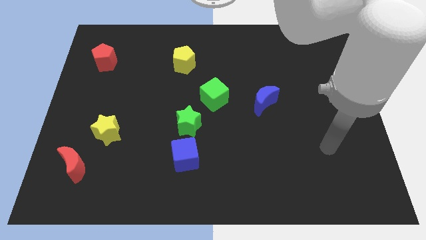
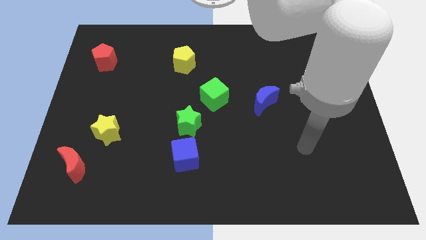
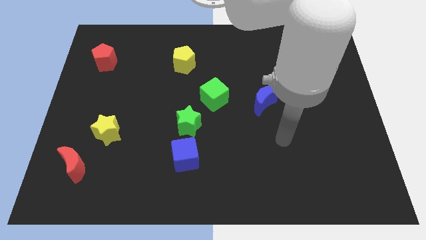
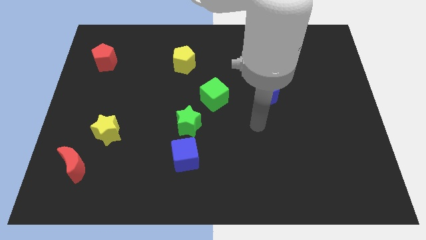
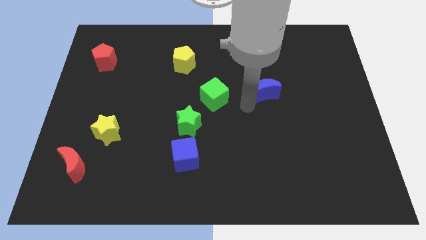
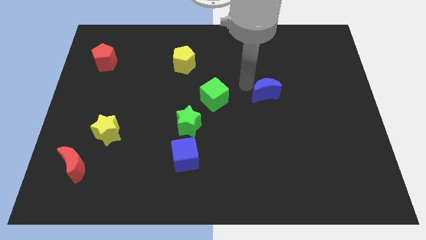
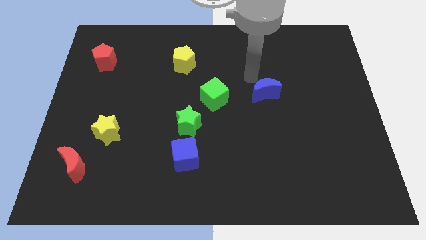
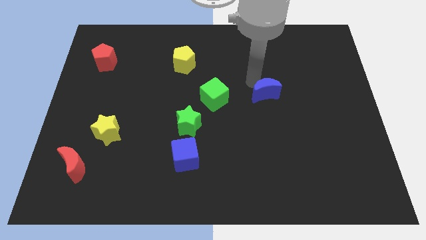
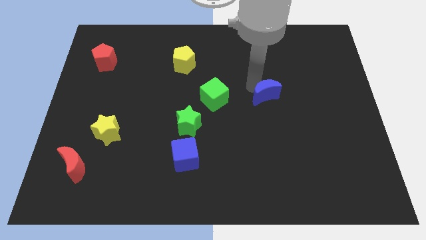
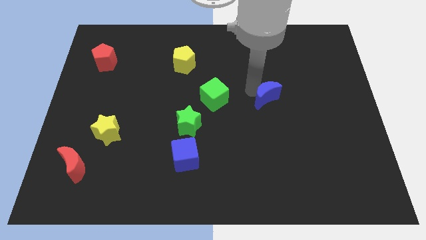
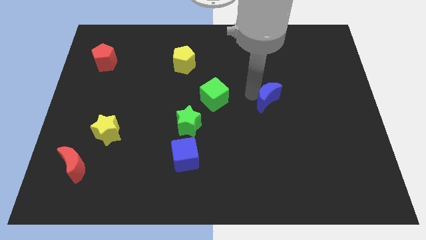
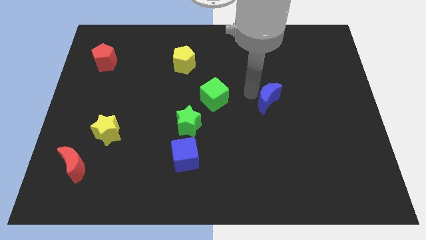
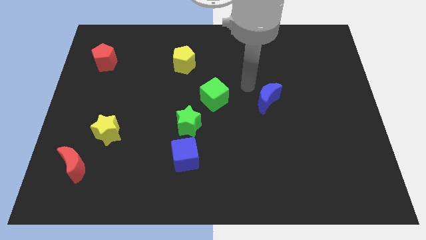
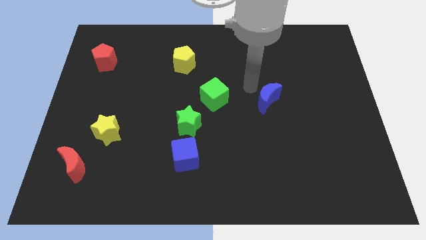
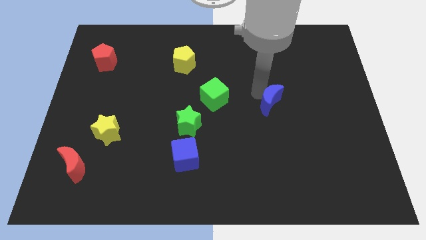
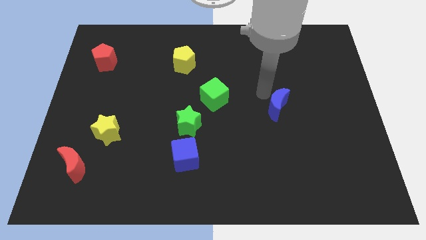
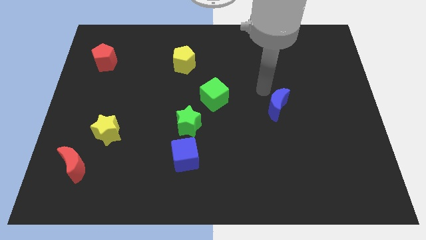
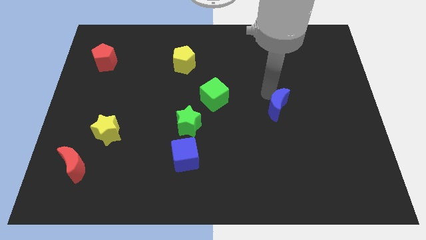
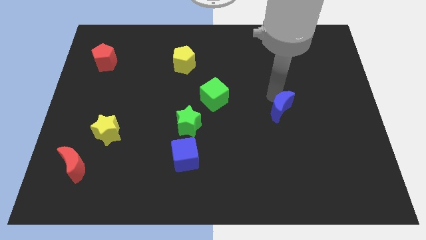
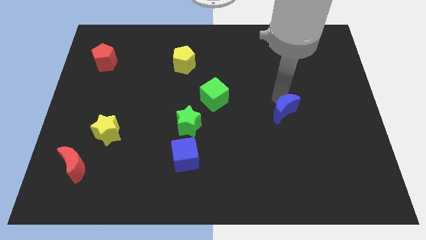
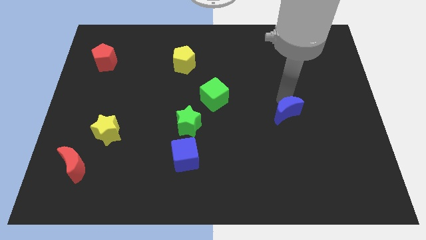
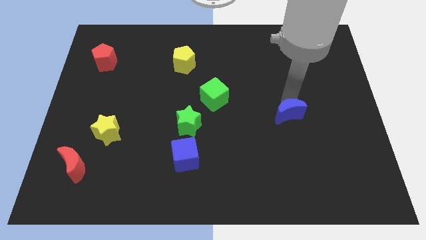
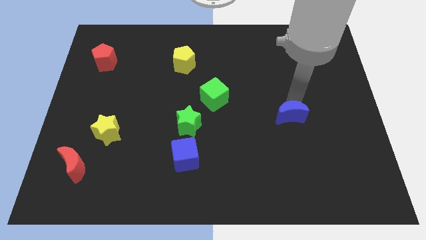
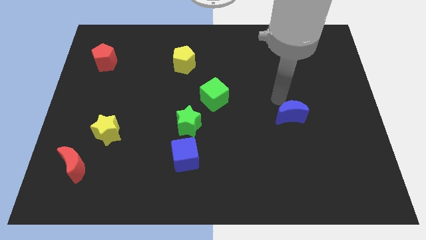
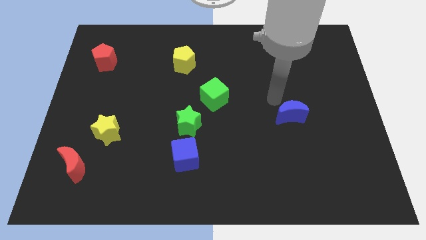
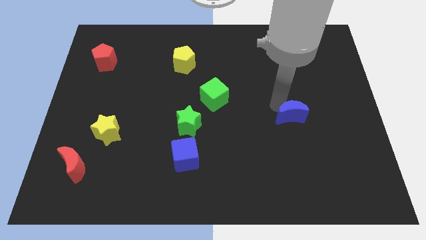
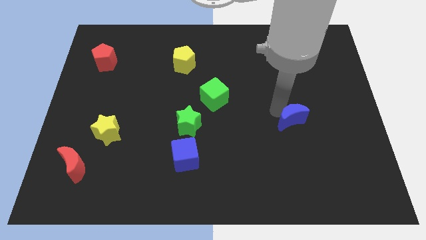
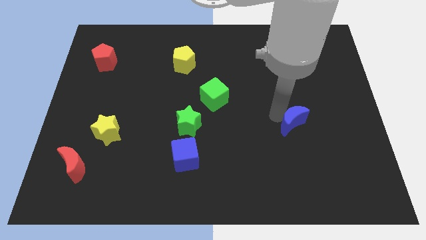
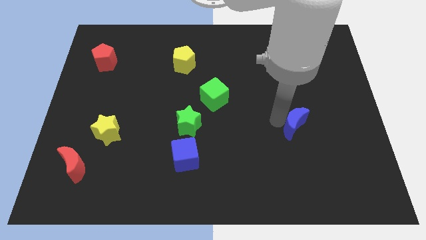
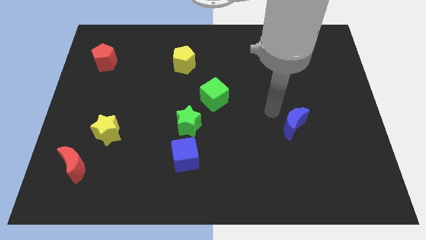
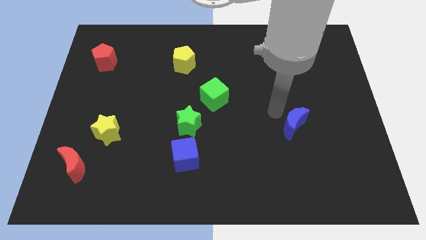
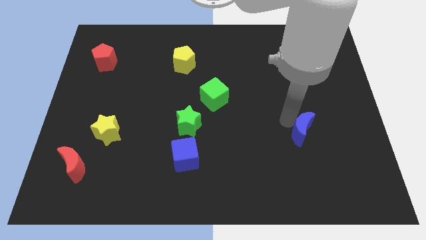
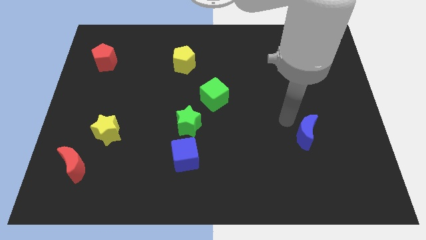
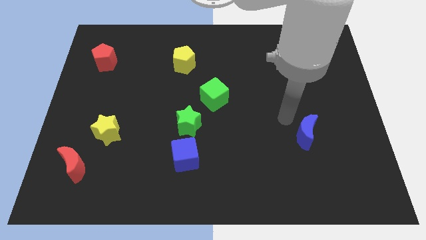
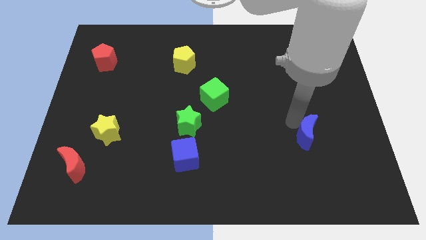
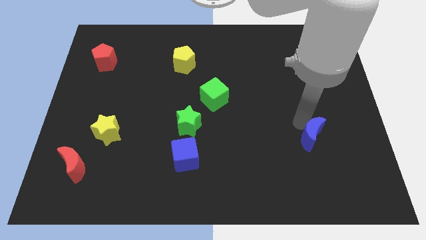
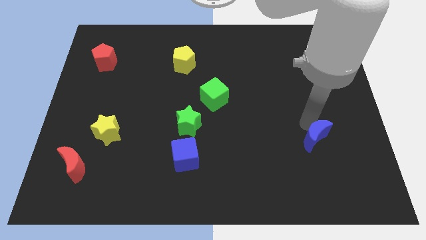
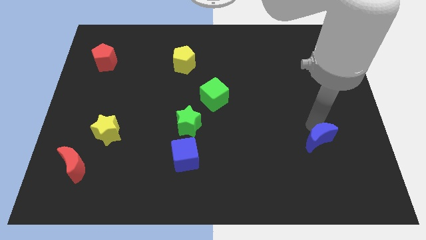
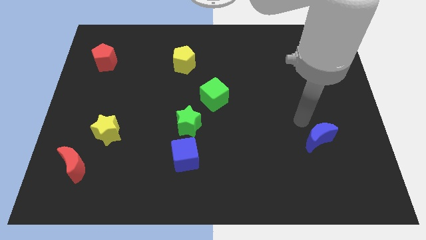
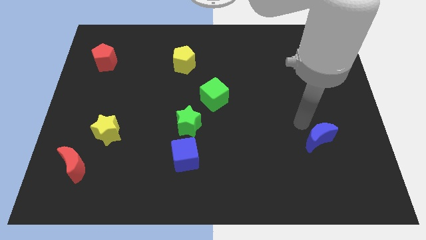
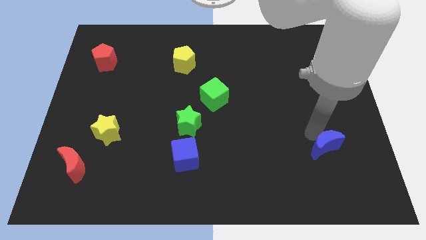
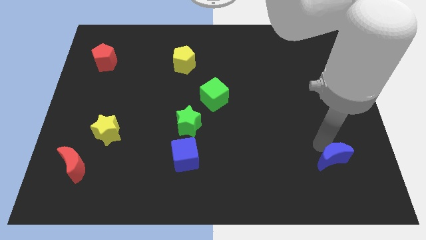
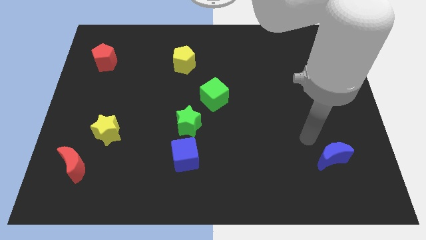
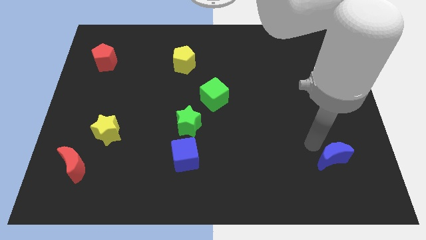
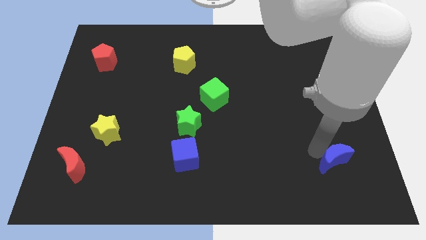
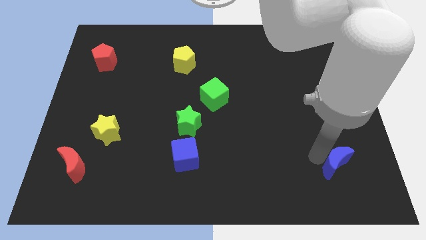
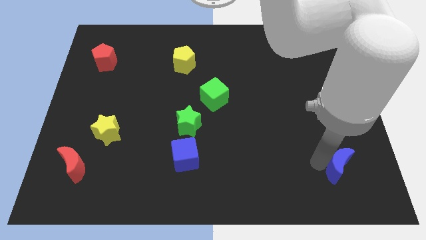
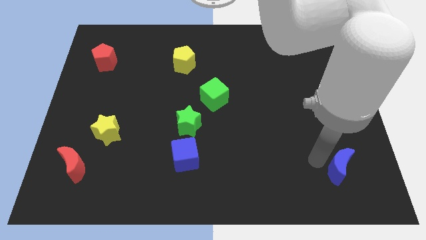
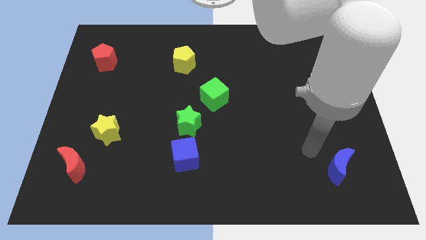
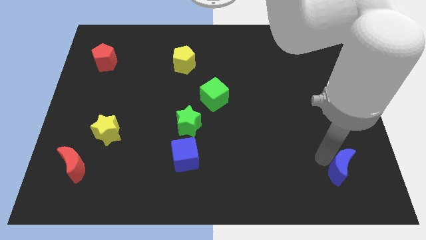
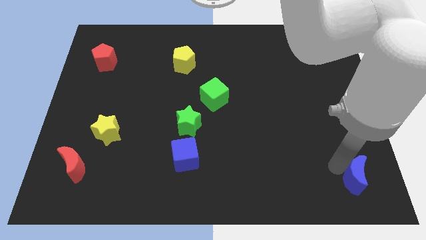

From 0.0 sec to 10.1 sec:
slide the blue moon to the bottom right

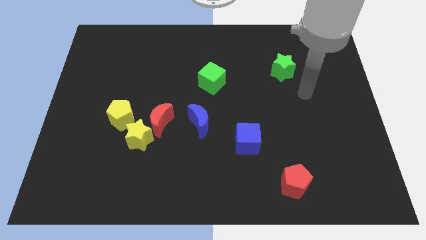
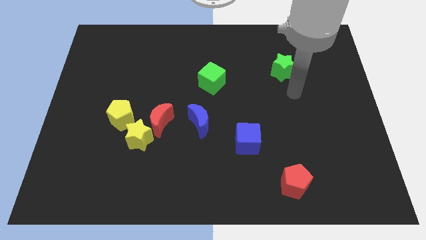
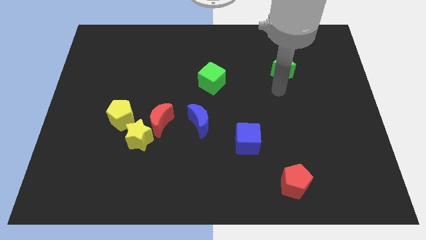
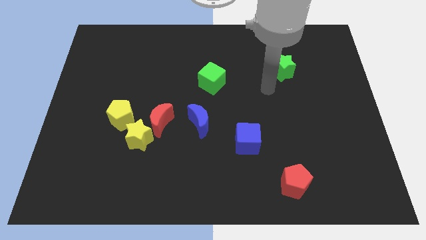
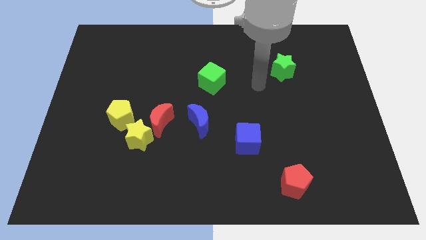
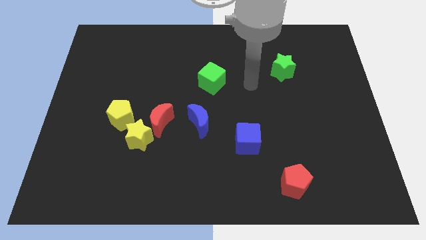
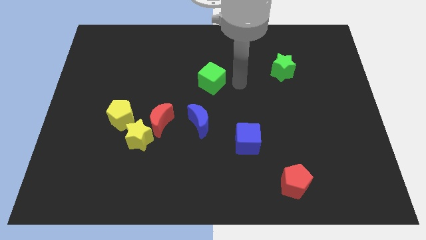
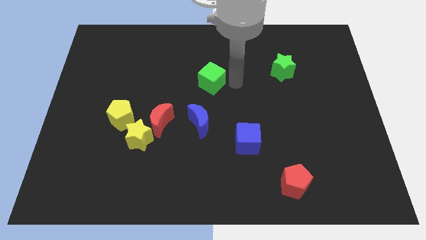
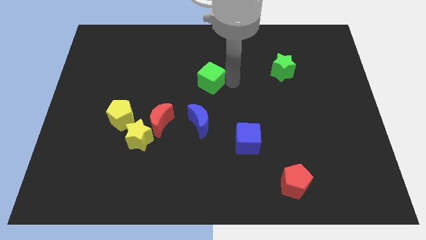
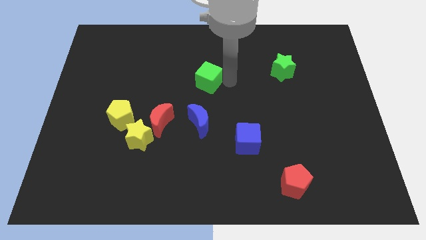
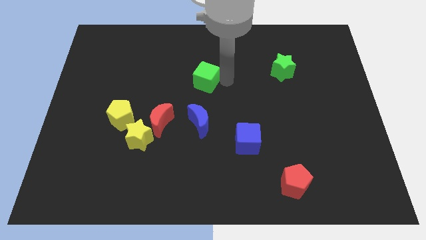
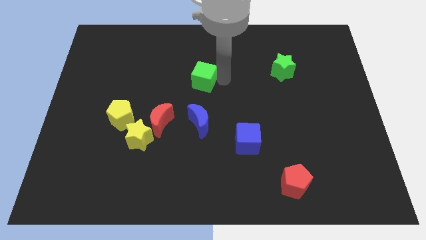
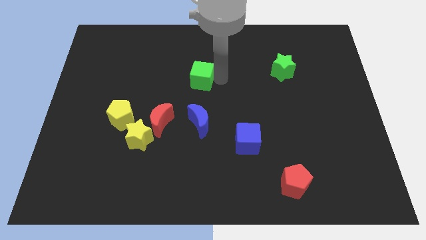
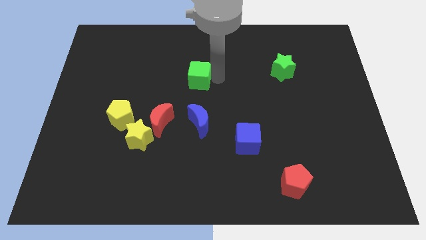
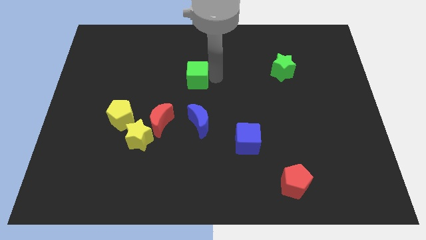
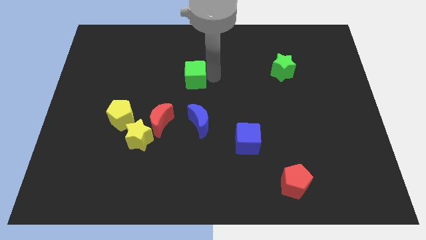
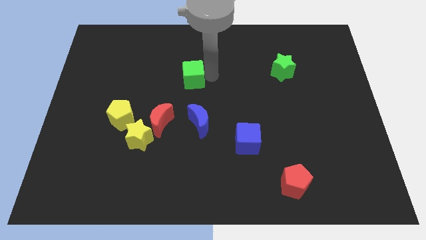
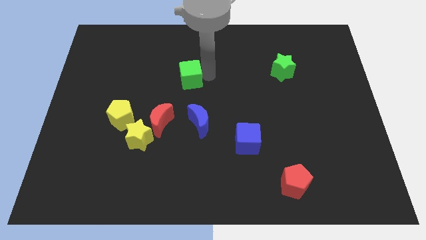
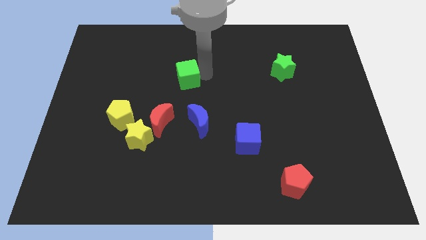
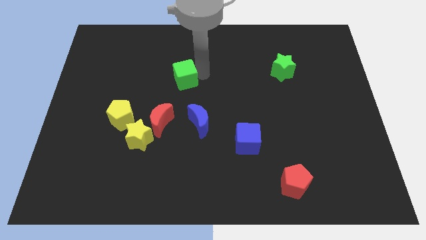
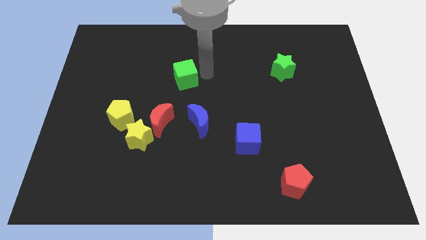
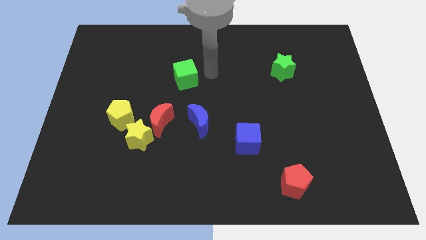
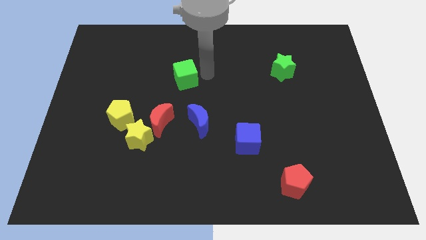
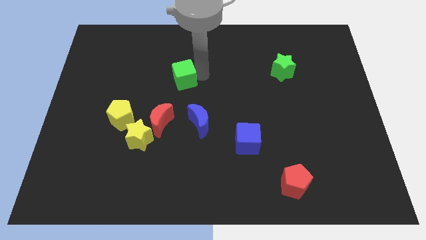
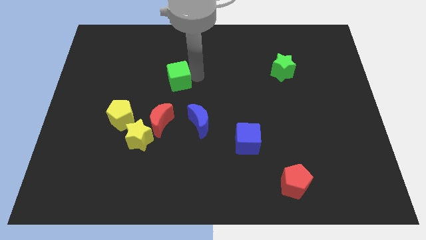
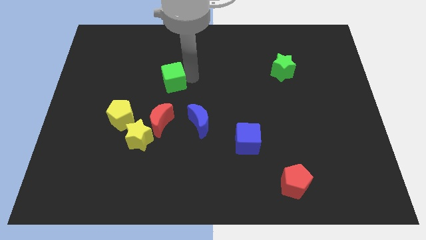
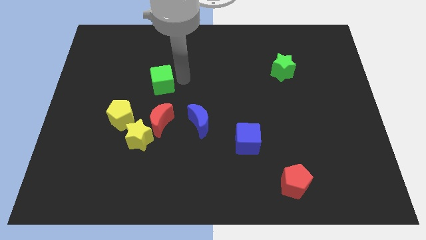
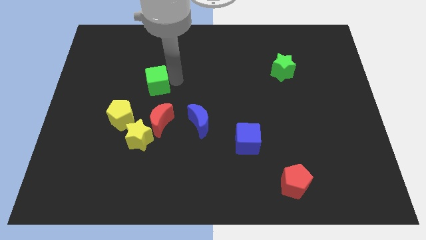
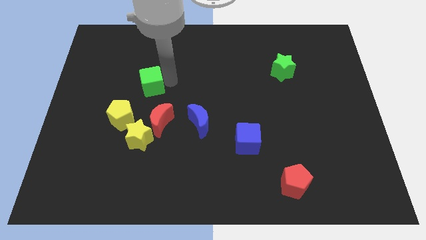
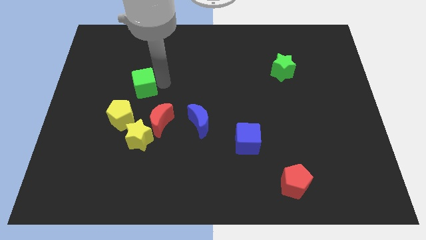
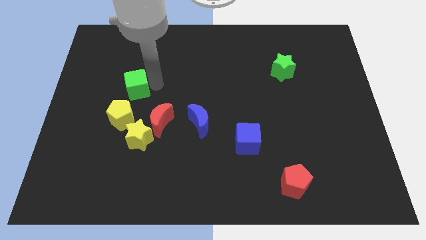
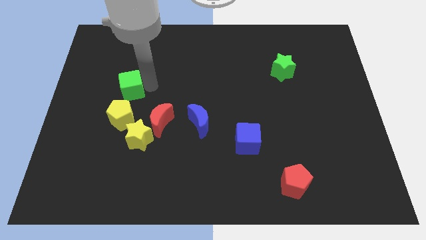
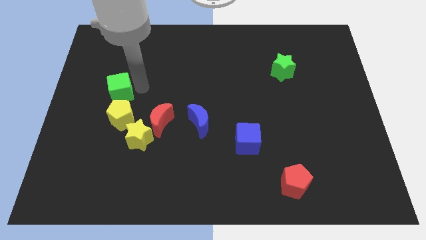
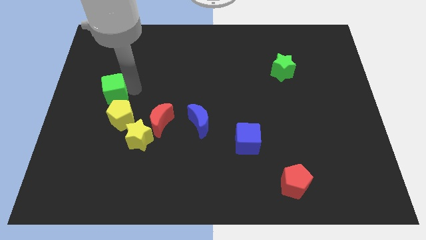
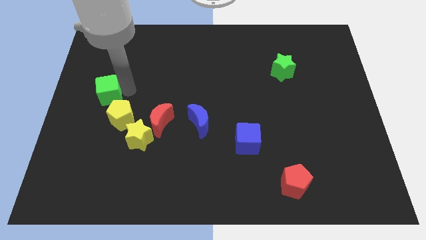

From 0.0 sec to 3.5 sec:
put the green cube to the left side of the board
